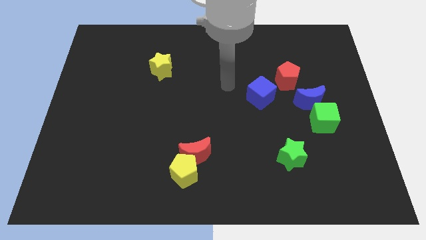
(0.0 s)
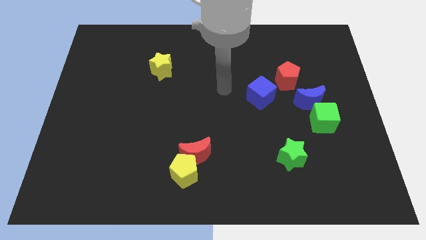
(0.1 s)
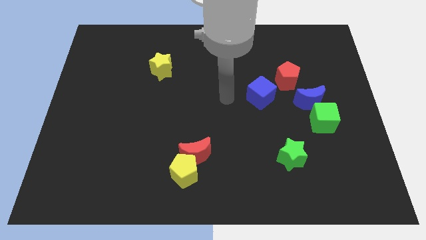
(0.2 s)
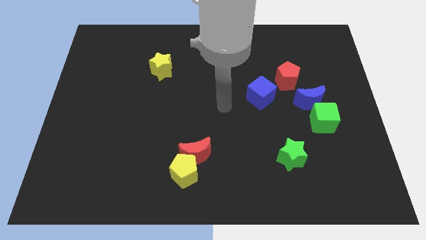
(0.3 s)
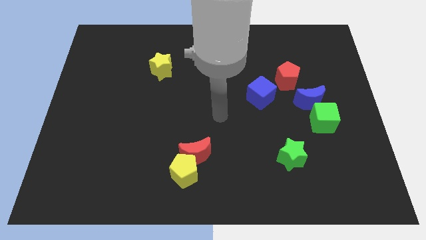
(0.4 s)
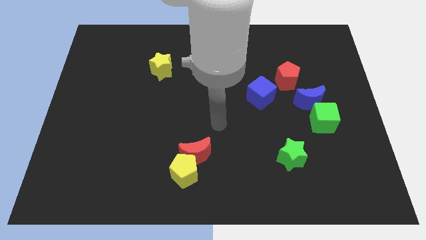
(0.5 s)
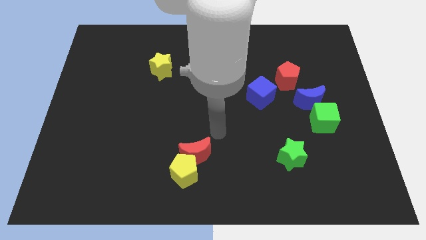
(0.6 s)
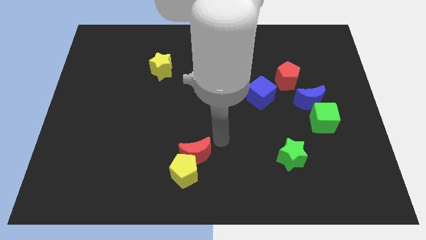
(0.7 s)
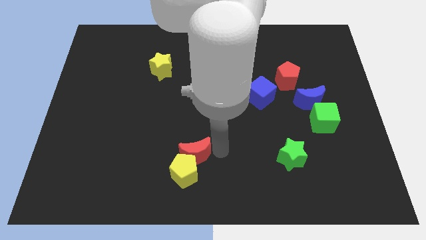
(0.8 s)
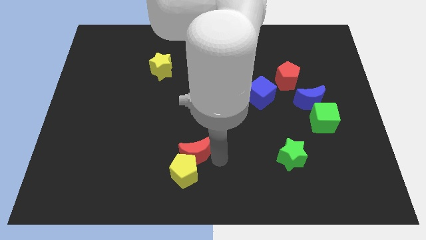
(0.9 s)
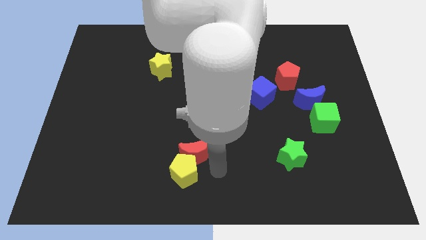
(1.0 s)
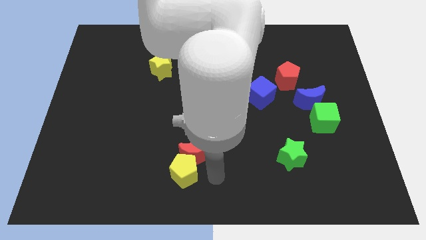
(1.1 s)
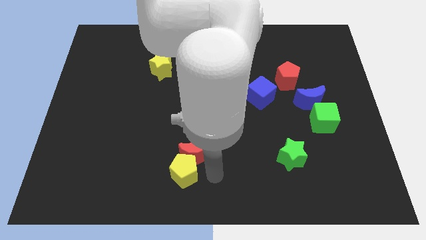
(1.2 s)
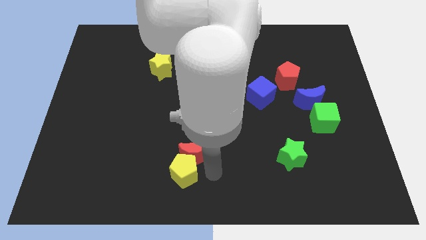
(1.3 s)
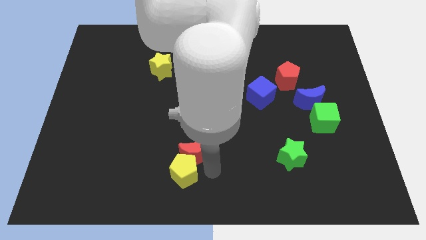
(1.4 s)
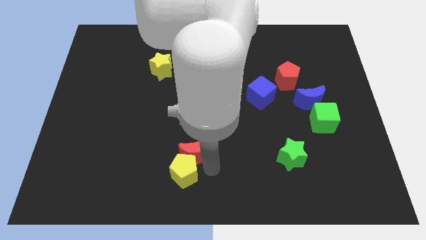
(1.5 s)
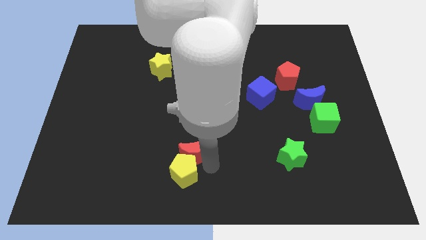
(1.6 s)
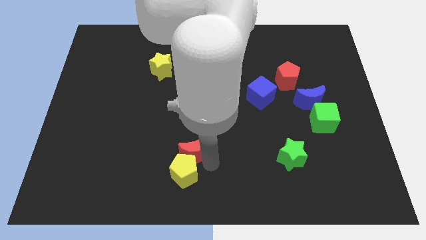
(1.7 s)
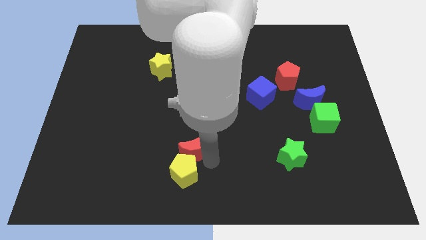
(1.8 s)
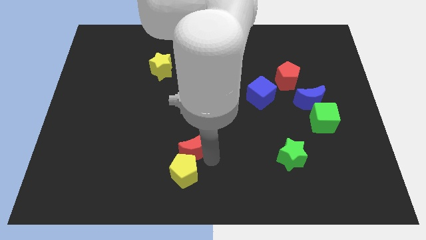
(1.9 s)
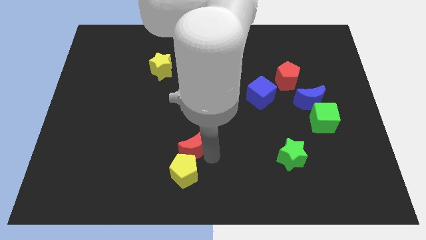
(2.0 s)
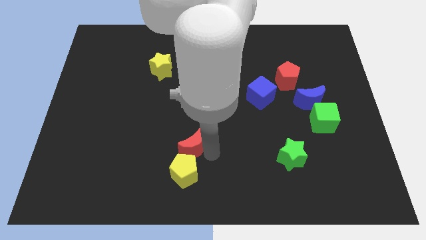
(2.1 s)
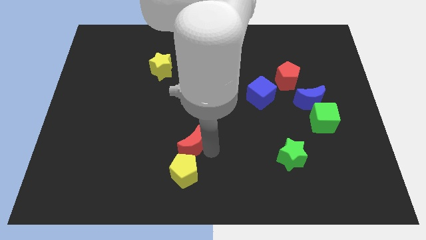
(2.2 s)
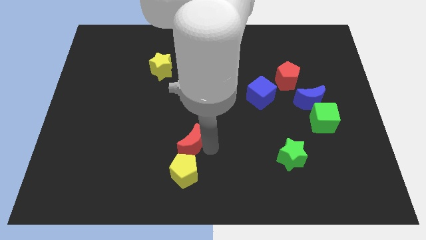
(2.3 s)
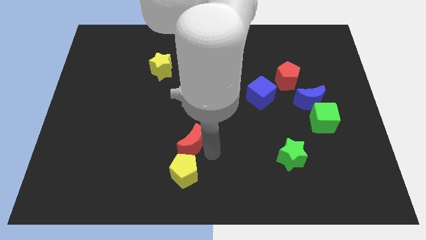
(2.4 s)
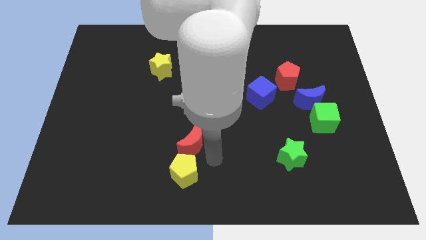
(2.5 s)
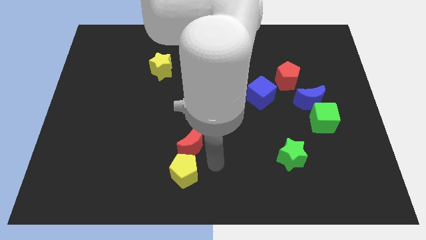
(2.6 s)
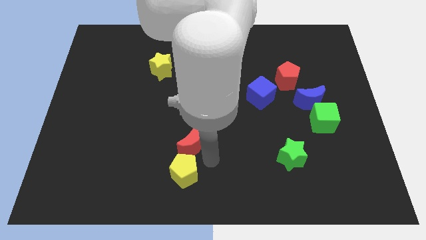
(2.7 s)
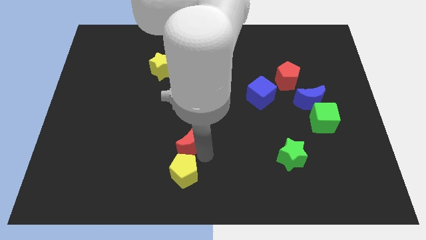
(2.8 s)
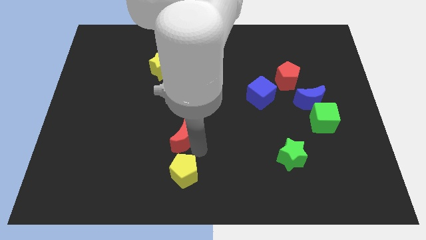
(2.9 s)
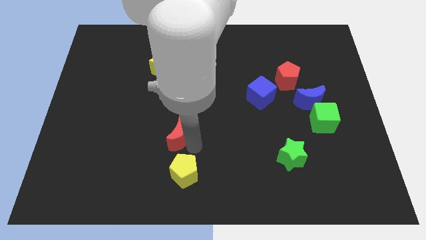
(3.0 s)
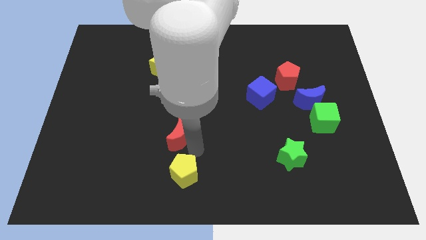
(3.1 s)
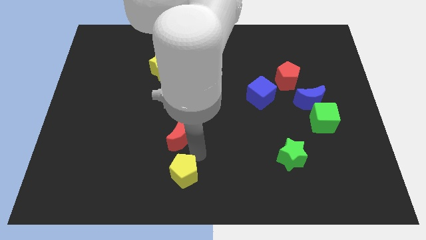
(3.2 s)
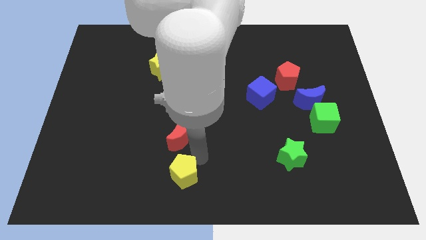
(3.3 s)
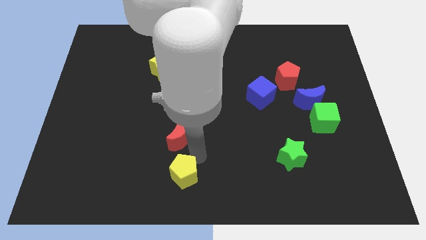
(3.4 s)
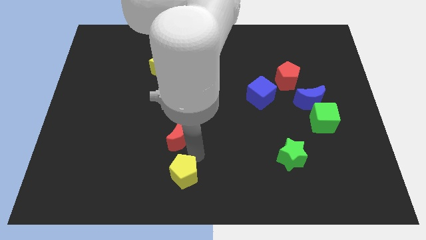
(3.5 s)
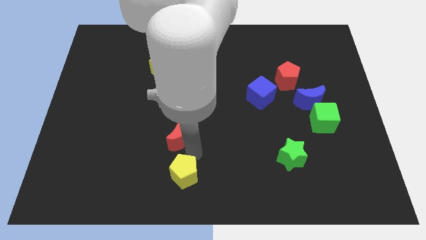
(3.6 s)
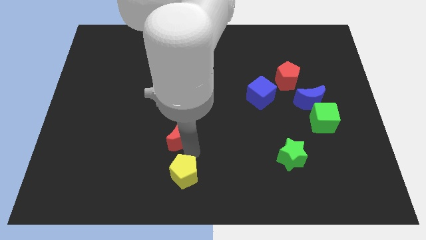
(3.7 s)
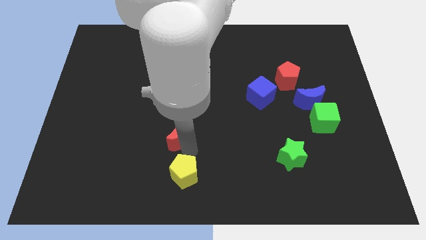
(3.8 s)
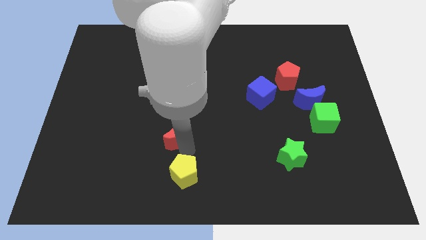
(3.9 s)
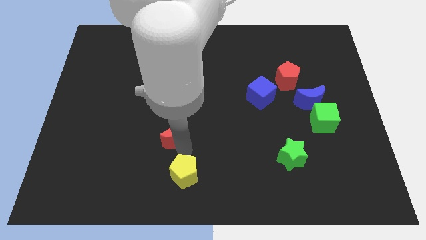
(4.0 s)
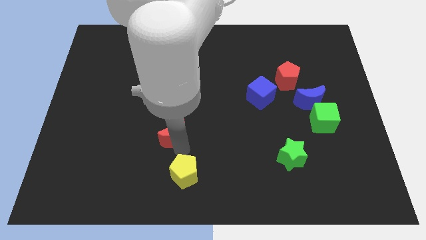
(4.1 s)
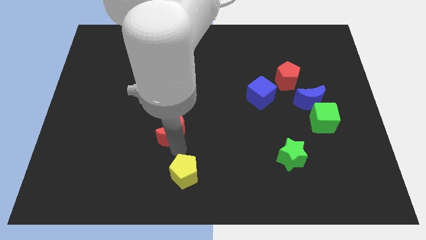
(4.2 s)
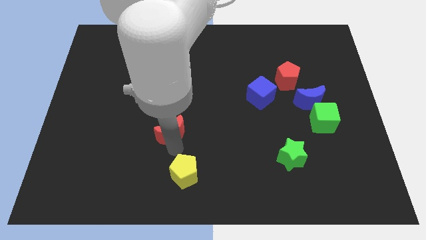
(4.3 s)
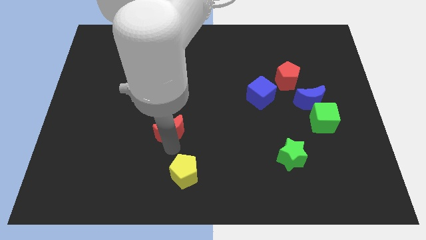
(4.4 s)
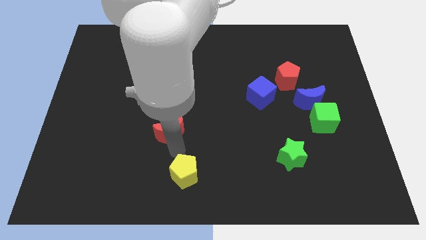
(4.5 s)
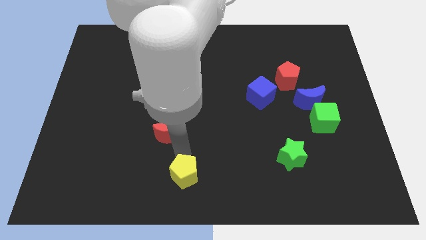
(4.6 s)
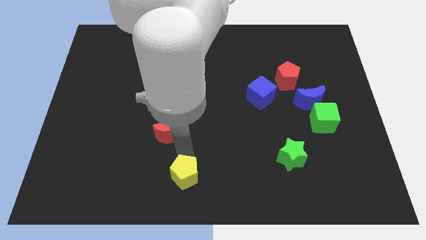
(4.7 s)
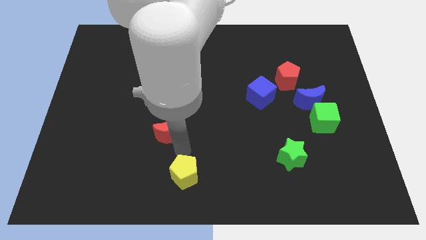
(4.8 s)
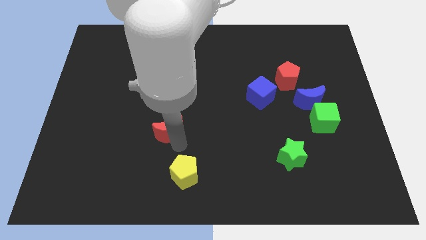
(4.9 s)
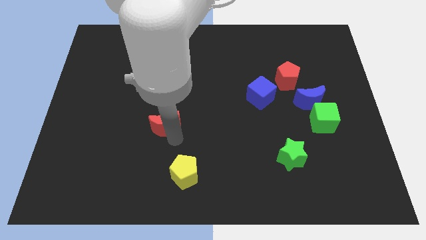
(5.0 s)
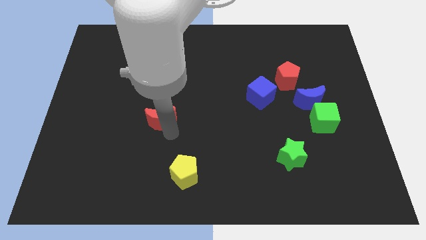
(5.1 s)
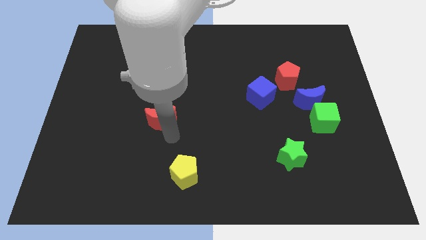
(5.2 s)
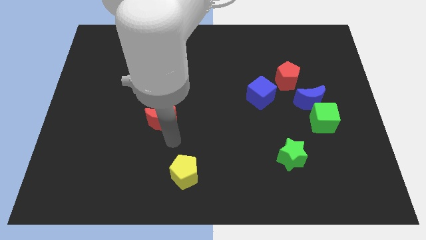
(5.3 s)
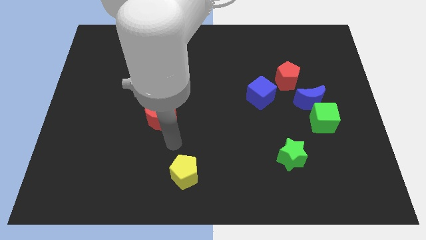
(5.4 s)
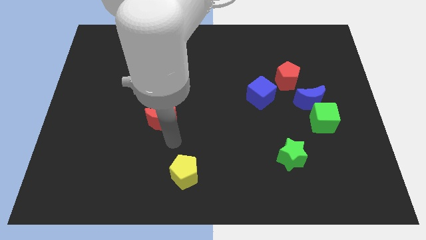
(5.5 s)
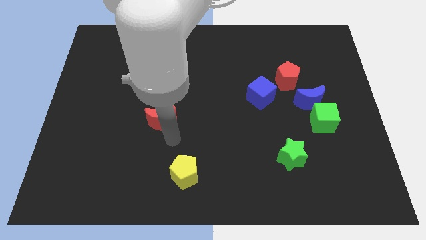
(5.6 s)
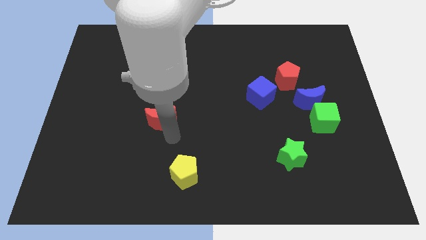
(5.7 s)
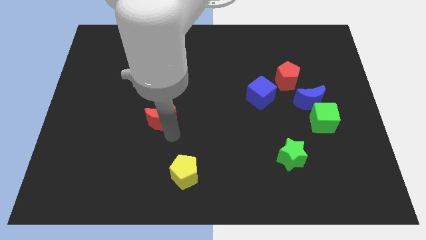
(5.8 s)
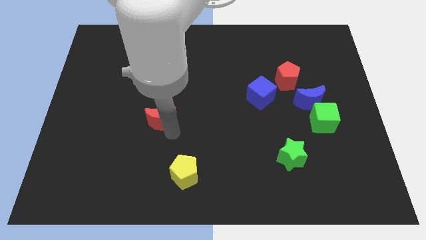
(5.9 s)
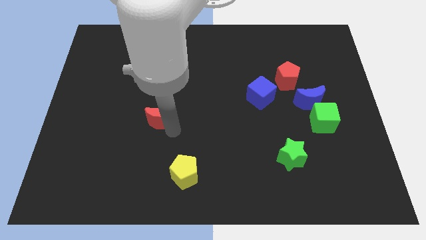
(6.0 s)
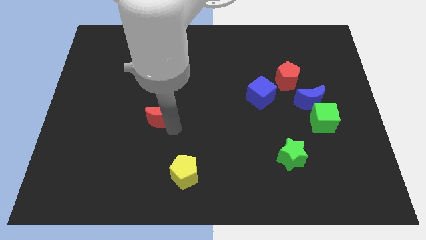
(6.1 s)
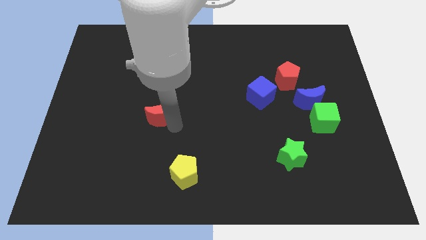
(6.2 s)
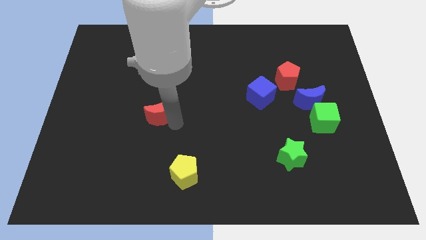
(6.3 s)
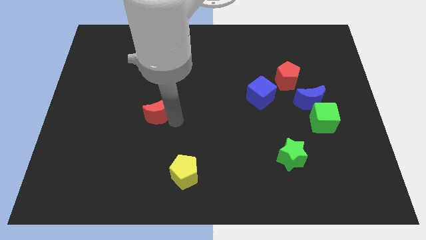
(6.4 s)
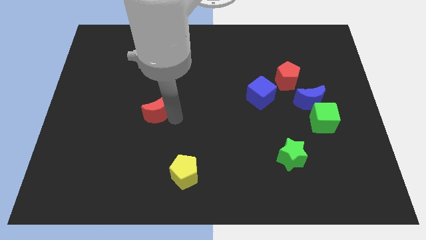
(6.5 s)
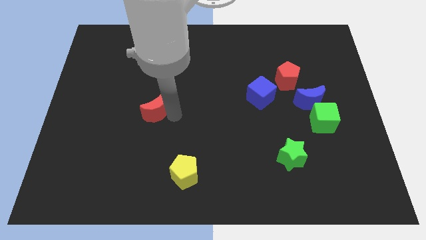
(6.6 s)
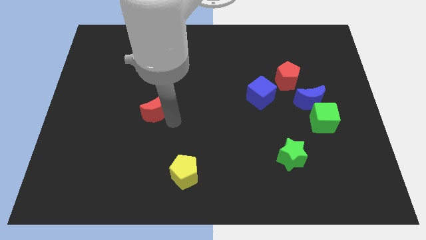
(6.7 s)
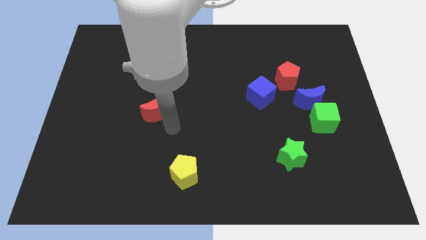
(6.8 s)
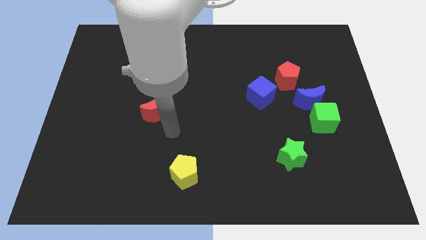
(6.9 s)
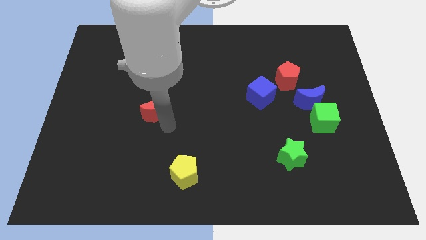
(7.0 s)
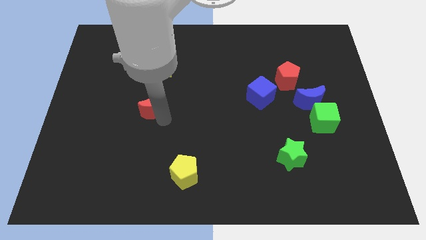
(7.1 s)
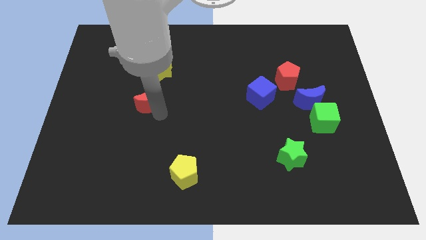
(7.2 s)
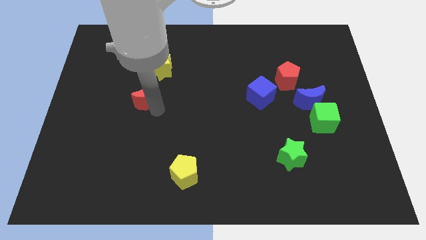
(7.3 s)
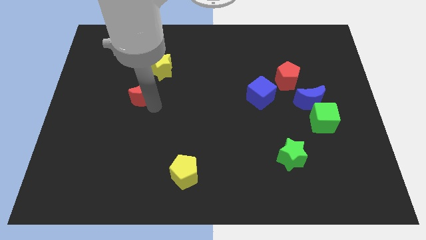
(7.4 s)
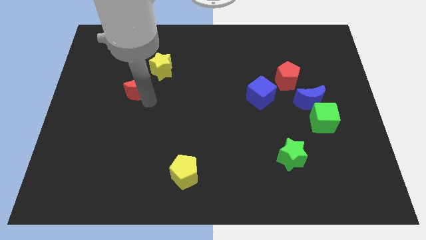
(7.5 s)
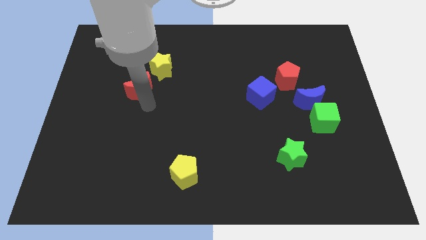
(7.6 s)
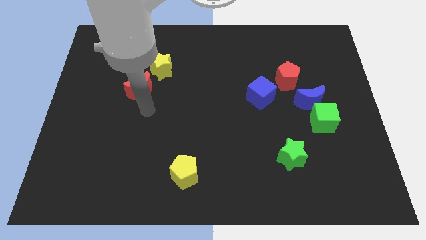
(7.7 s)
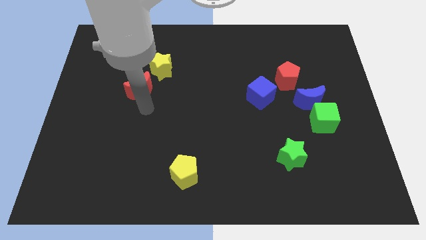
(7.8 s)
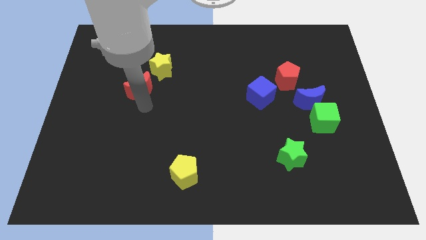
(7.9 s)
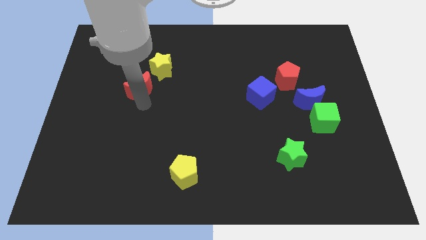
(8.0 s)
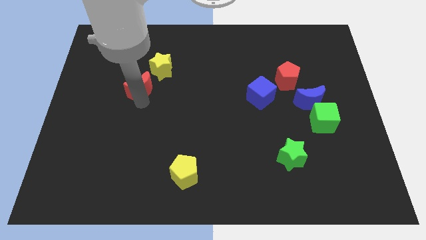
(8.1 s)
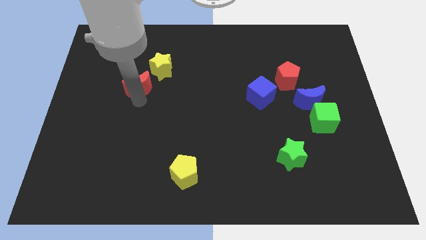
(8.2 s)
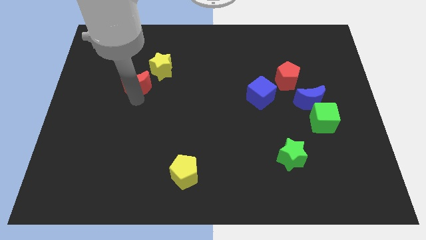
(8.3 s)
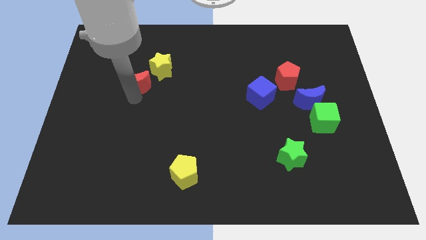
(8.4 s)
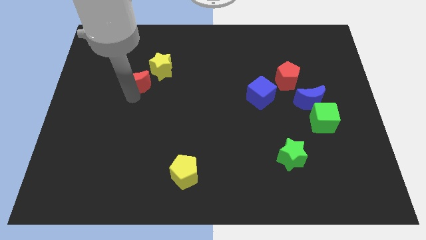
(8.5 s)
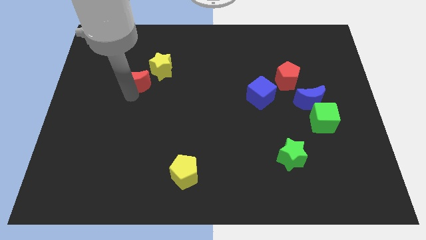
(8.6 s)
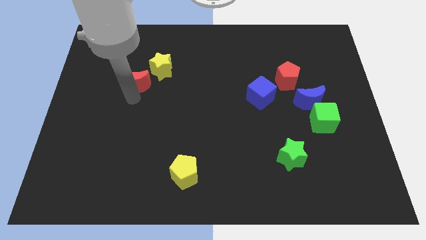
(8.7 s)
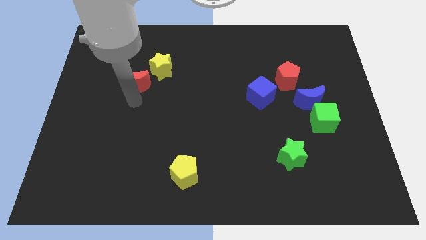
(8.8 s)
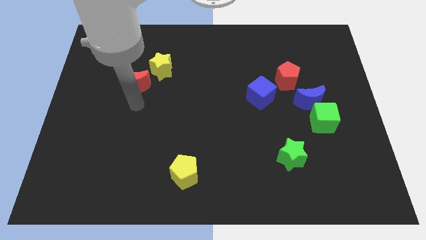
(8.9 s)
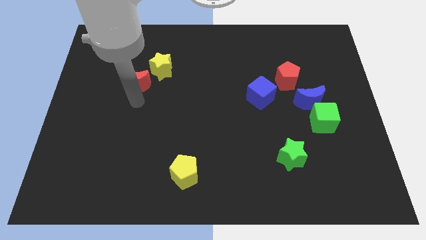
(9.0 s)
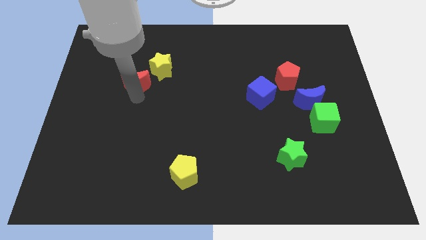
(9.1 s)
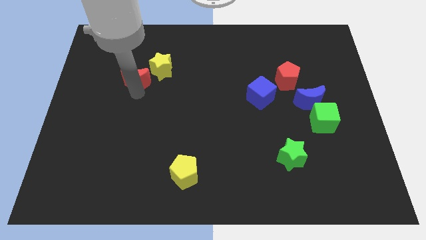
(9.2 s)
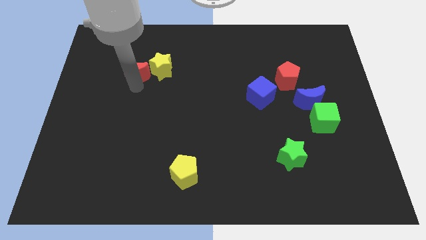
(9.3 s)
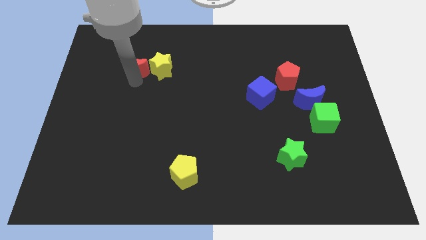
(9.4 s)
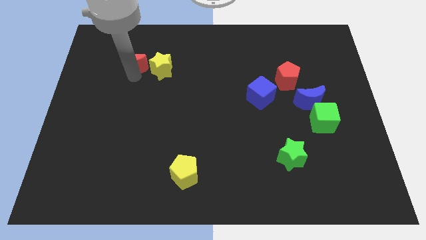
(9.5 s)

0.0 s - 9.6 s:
push the red moon to the top left of the yellow star
